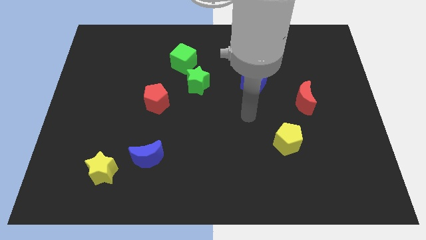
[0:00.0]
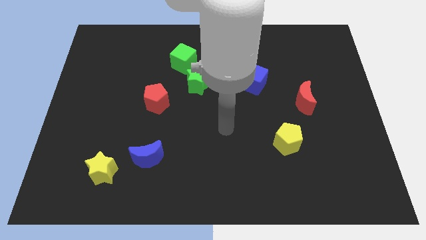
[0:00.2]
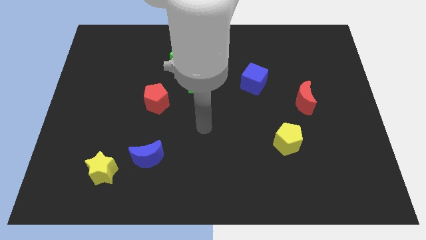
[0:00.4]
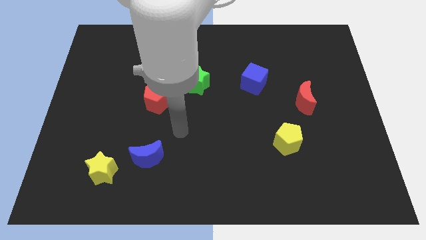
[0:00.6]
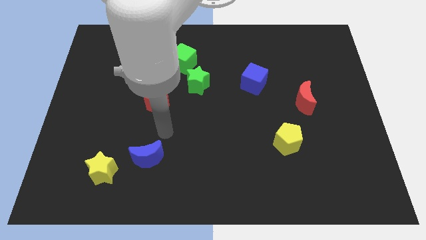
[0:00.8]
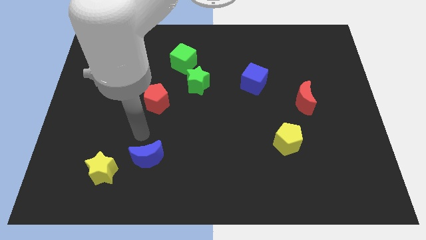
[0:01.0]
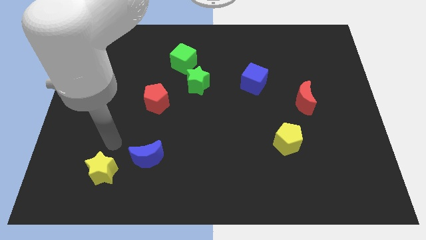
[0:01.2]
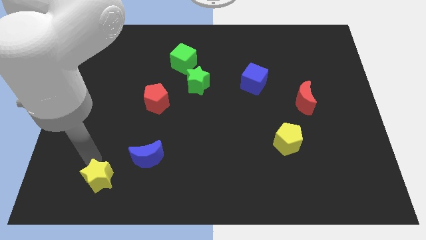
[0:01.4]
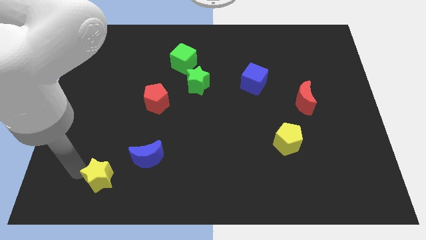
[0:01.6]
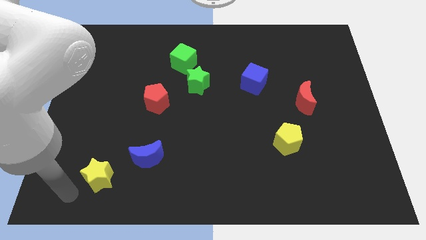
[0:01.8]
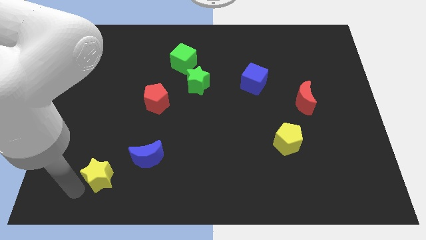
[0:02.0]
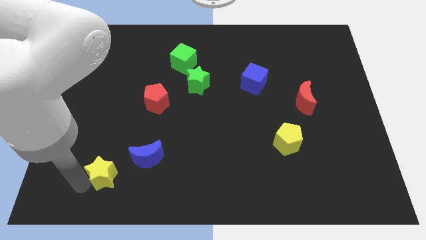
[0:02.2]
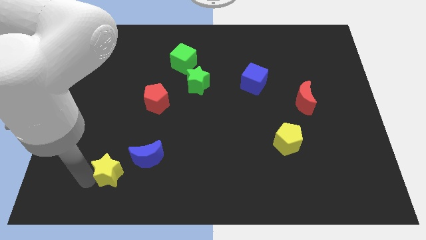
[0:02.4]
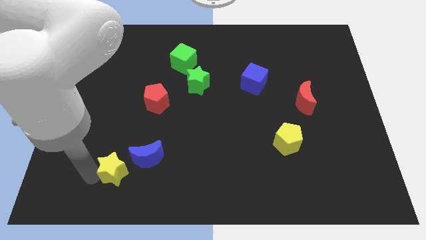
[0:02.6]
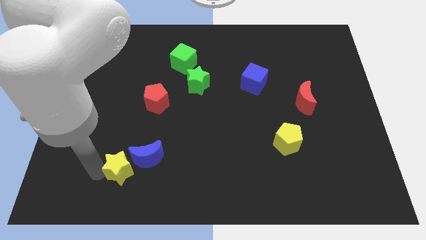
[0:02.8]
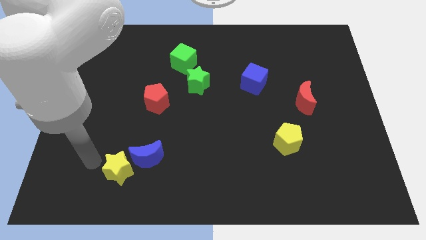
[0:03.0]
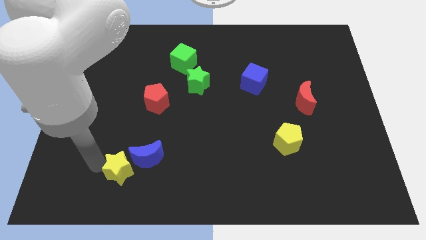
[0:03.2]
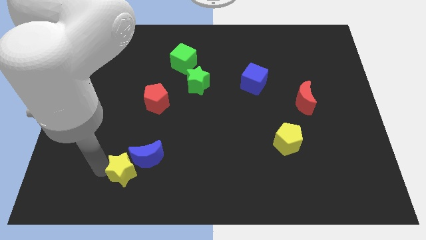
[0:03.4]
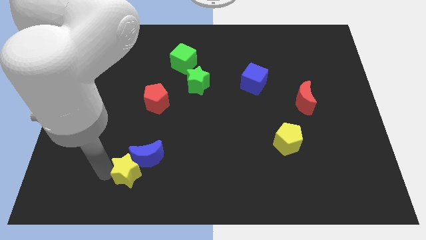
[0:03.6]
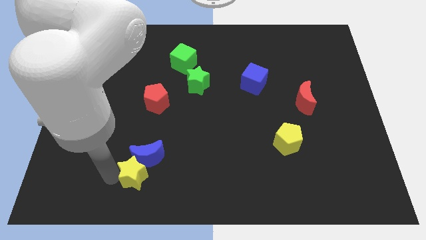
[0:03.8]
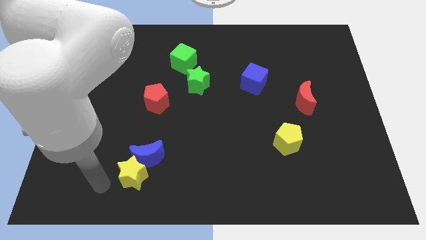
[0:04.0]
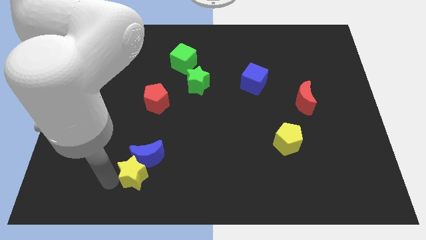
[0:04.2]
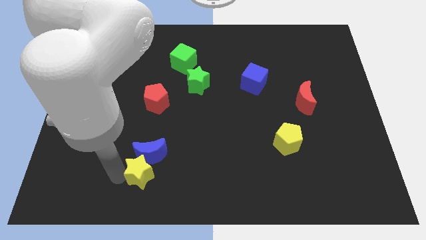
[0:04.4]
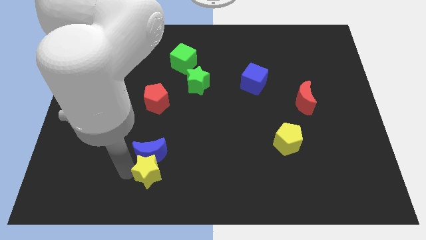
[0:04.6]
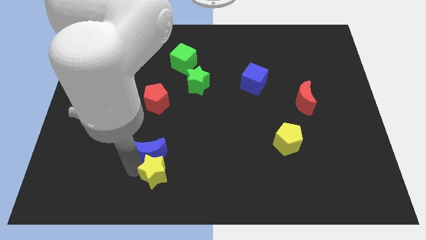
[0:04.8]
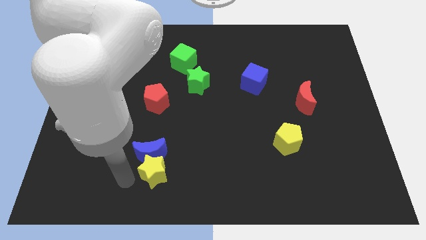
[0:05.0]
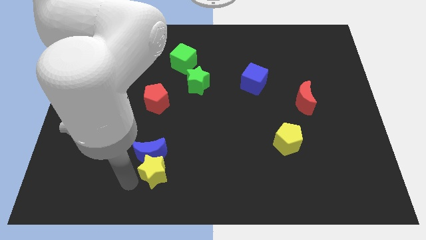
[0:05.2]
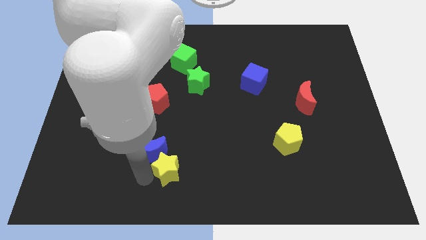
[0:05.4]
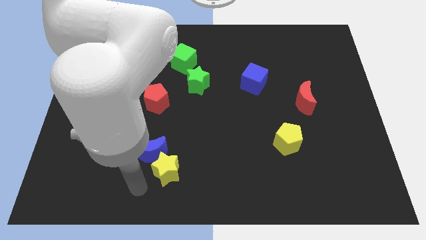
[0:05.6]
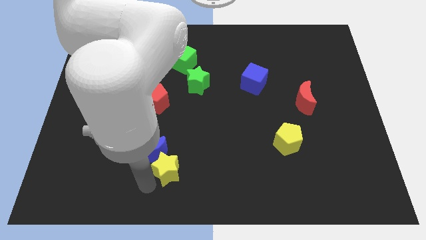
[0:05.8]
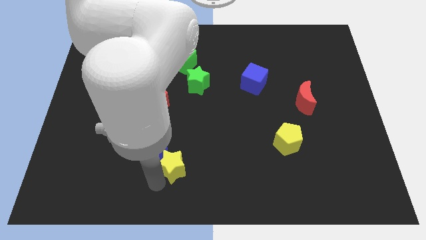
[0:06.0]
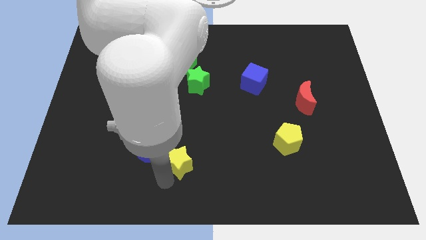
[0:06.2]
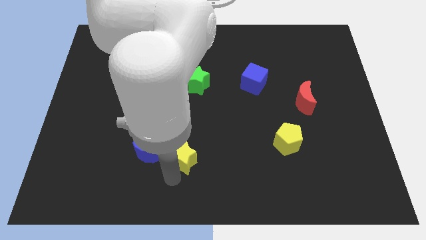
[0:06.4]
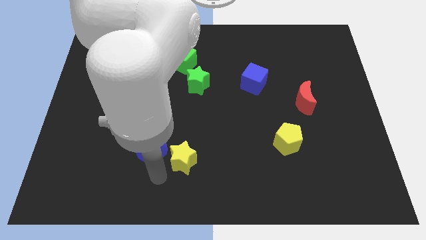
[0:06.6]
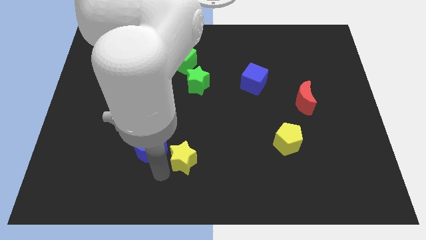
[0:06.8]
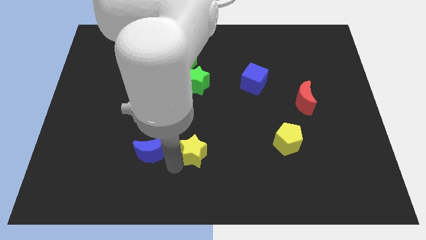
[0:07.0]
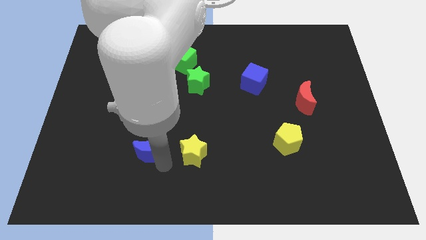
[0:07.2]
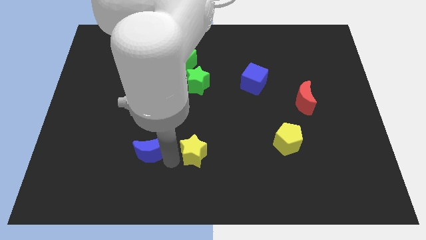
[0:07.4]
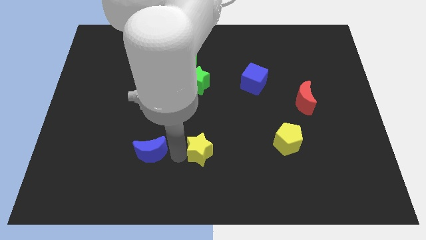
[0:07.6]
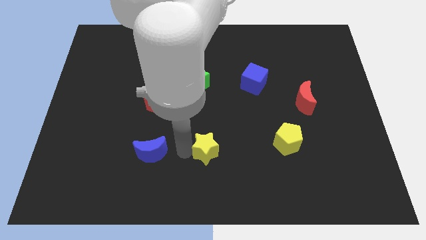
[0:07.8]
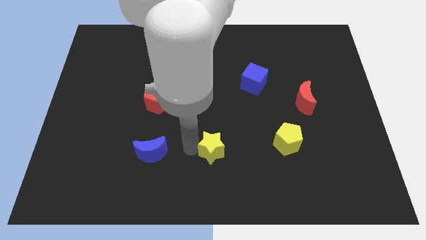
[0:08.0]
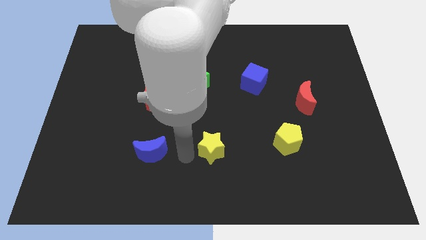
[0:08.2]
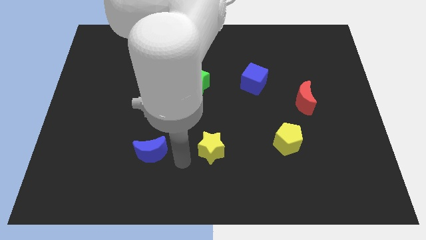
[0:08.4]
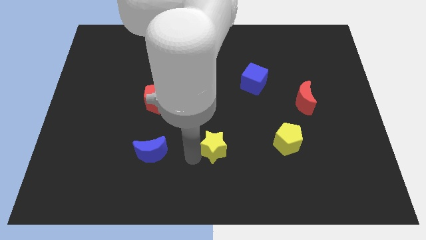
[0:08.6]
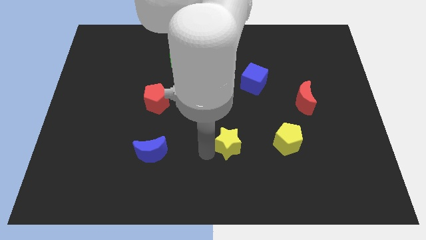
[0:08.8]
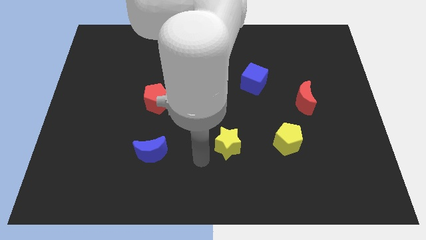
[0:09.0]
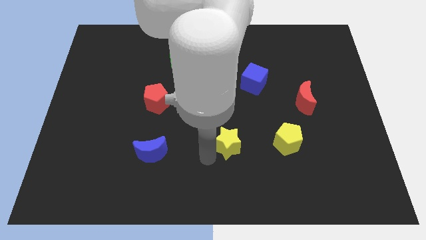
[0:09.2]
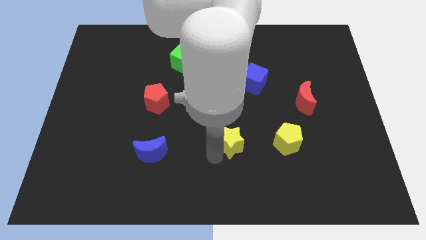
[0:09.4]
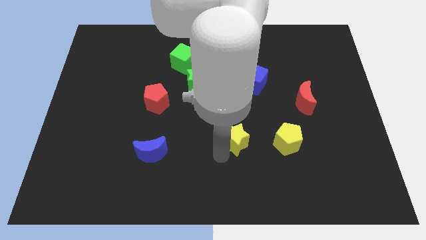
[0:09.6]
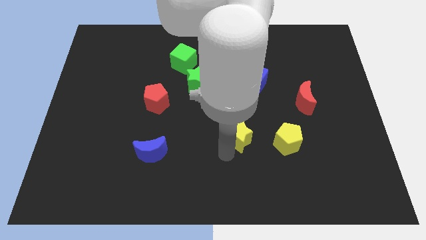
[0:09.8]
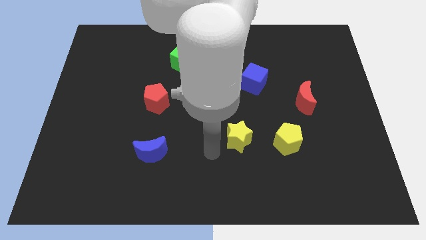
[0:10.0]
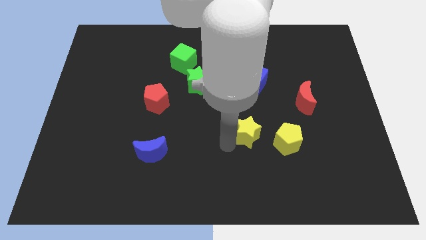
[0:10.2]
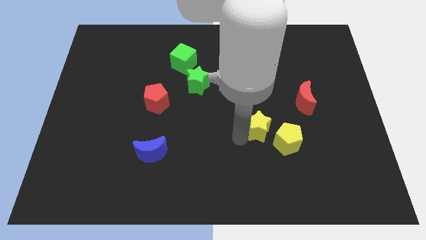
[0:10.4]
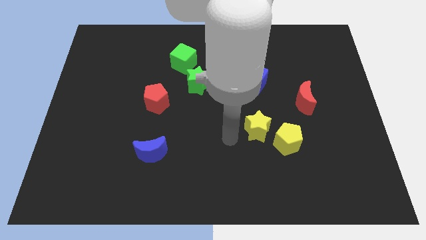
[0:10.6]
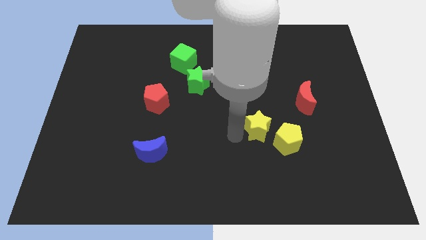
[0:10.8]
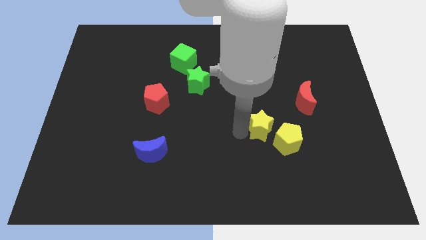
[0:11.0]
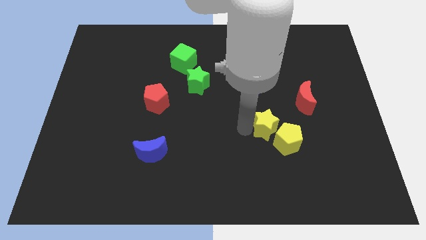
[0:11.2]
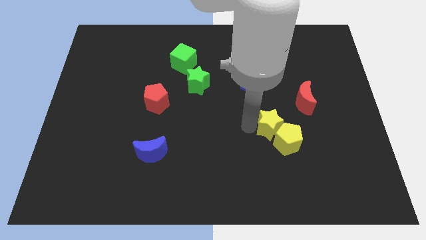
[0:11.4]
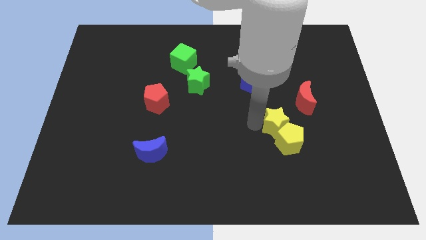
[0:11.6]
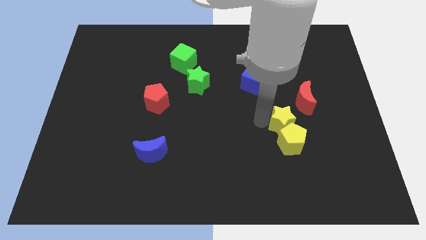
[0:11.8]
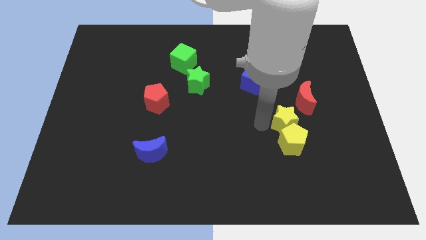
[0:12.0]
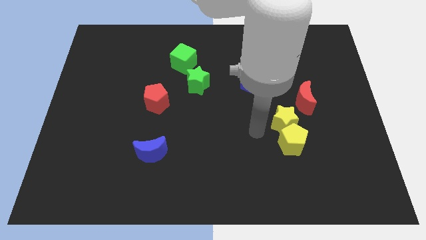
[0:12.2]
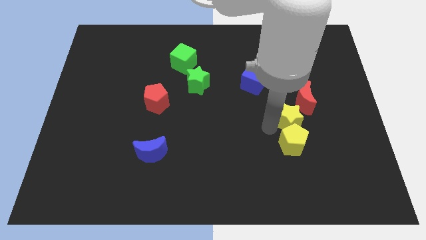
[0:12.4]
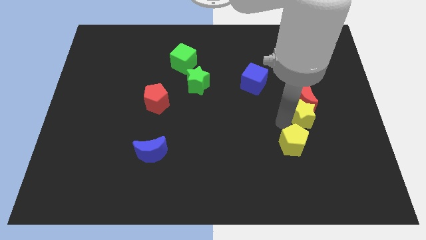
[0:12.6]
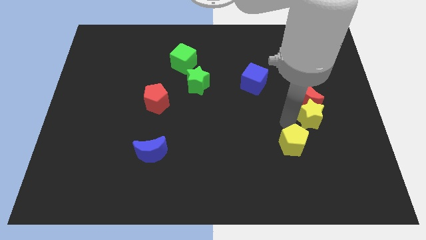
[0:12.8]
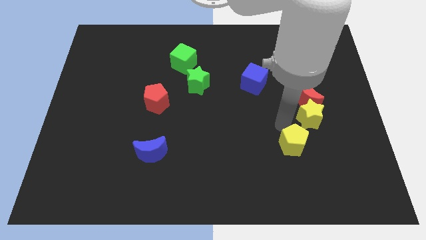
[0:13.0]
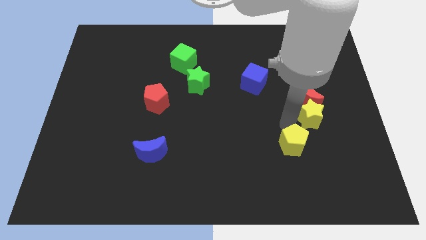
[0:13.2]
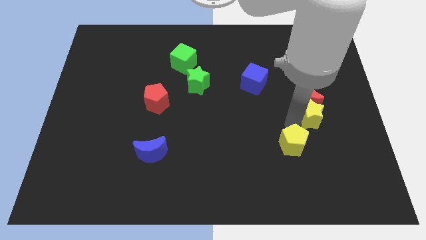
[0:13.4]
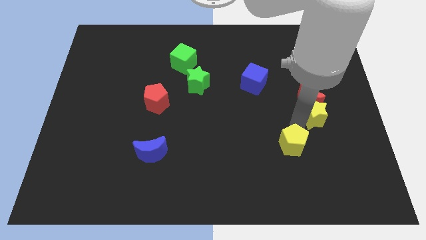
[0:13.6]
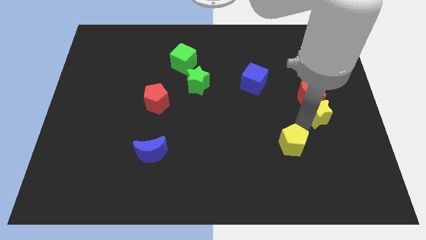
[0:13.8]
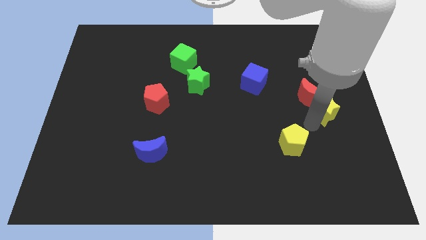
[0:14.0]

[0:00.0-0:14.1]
move the yellow star to the right side
